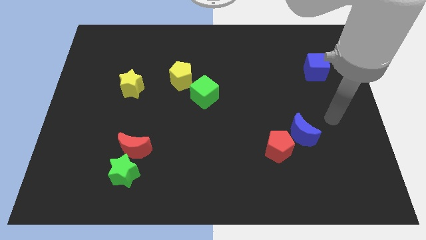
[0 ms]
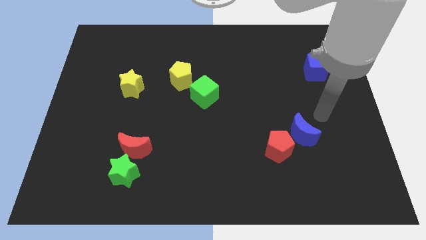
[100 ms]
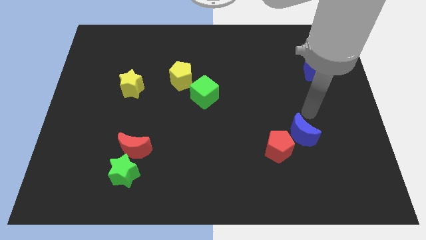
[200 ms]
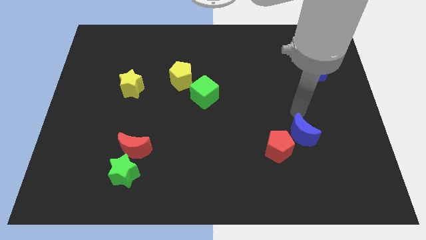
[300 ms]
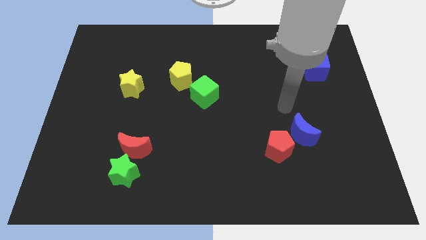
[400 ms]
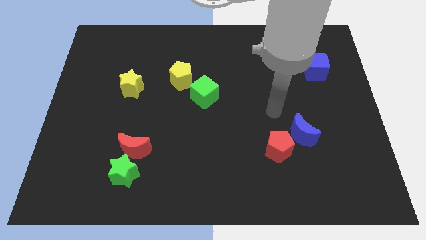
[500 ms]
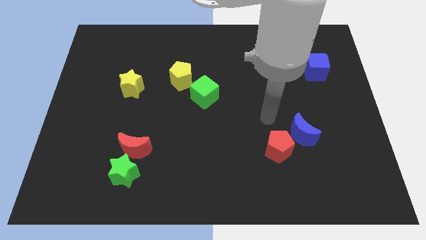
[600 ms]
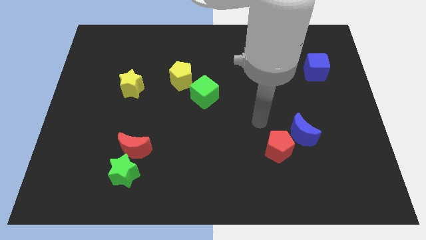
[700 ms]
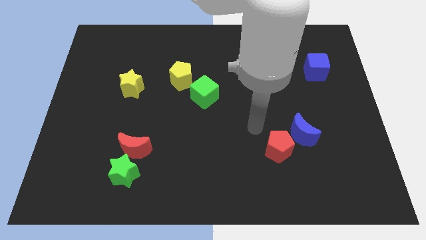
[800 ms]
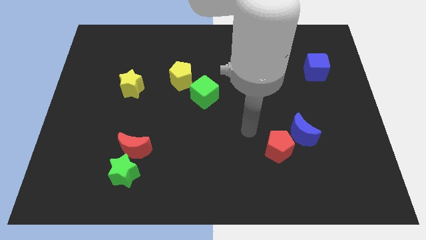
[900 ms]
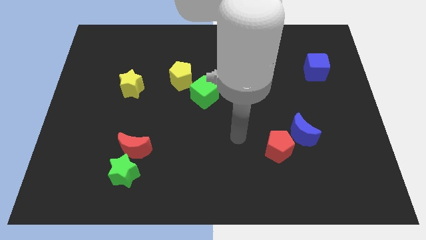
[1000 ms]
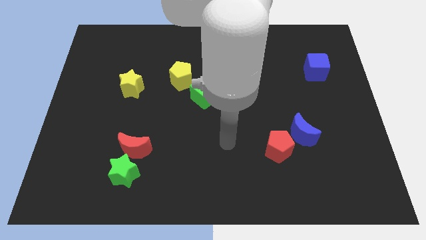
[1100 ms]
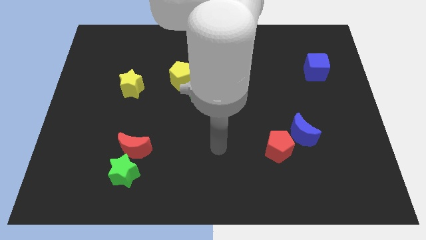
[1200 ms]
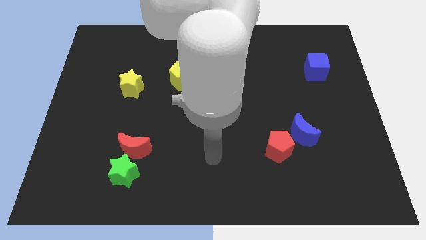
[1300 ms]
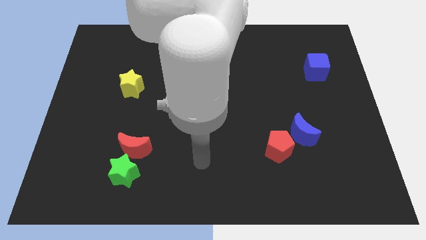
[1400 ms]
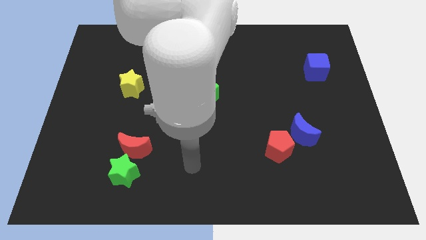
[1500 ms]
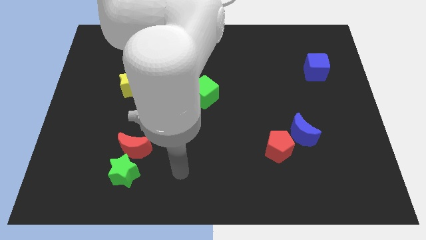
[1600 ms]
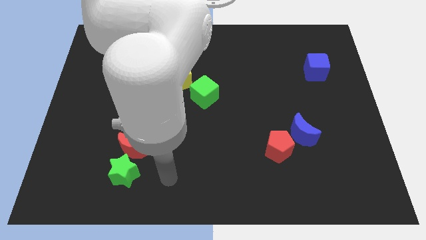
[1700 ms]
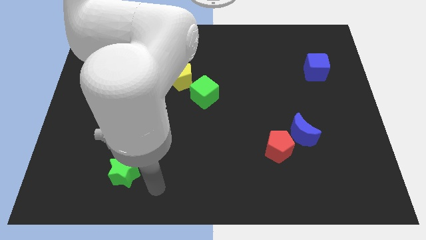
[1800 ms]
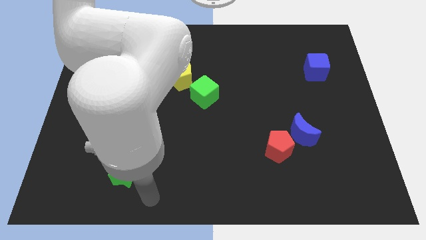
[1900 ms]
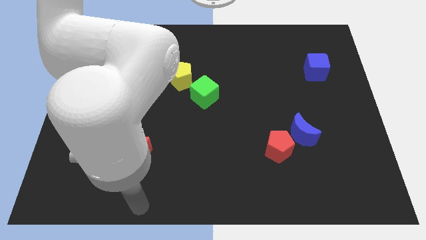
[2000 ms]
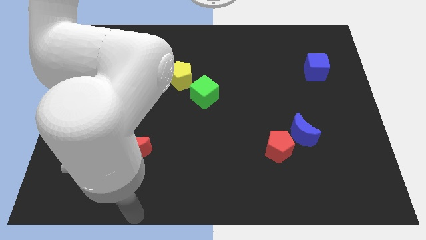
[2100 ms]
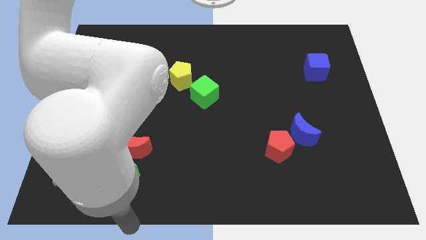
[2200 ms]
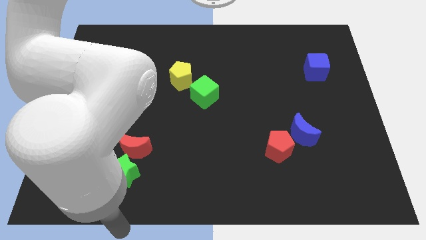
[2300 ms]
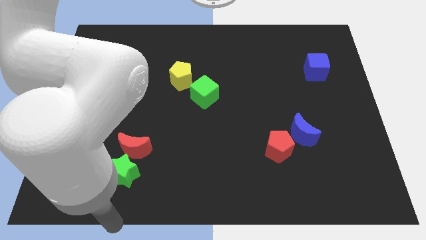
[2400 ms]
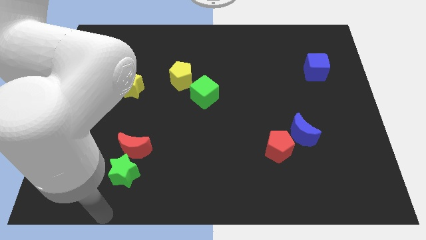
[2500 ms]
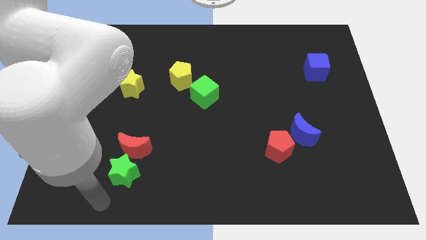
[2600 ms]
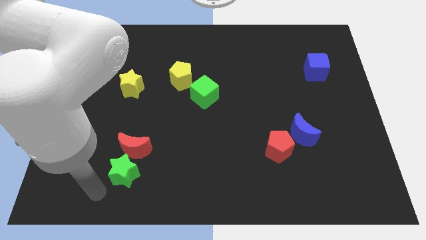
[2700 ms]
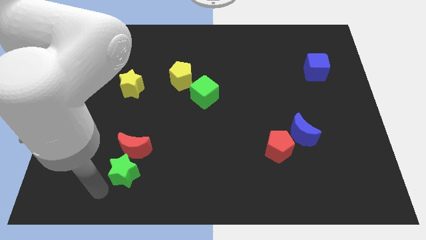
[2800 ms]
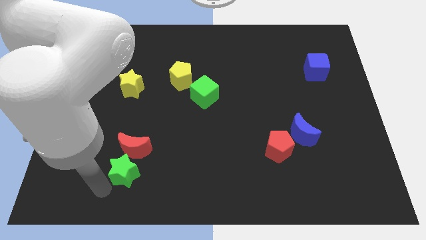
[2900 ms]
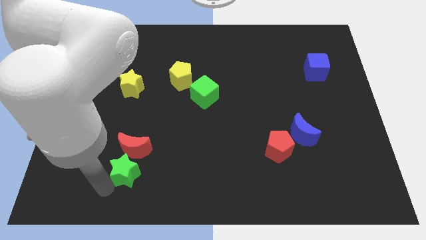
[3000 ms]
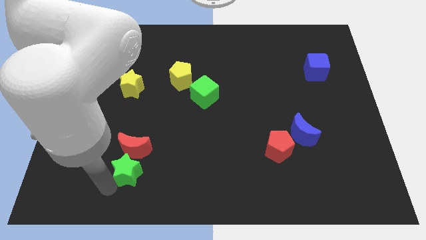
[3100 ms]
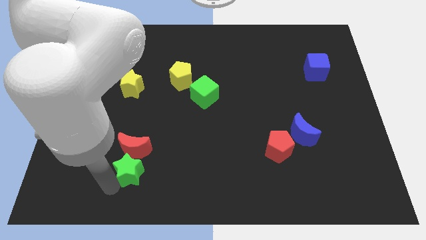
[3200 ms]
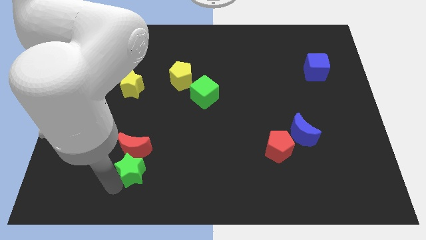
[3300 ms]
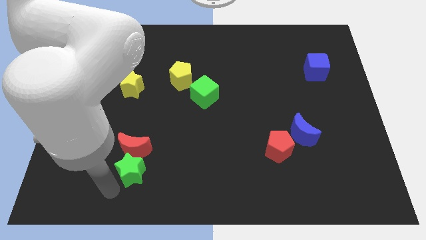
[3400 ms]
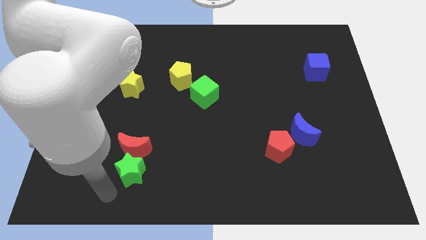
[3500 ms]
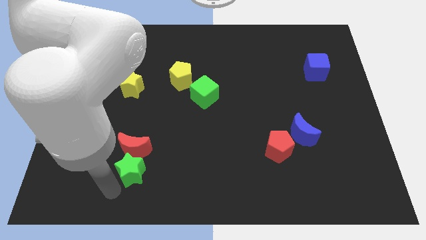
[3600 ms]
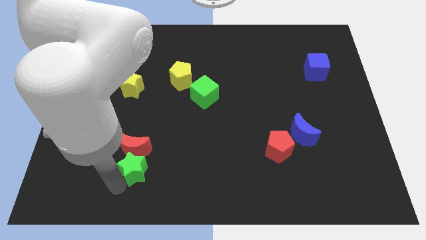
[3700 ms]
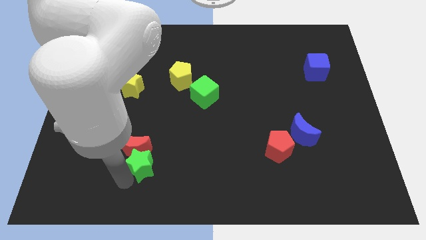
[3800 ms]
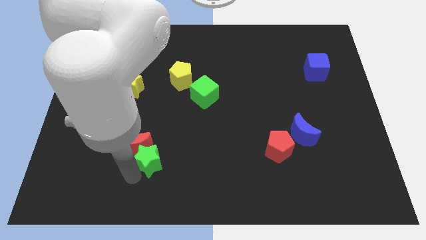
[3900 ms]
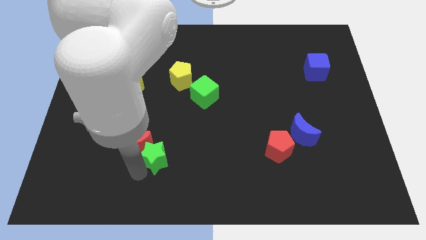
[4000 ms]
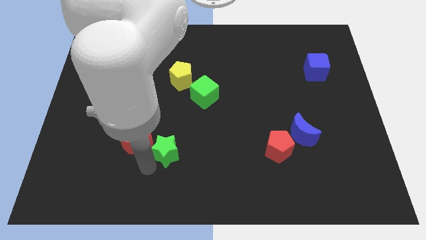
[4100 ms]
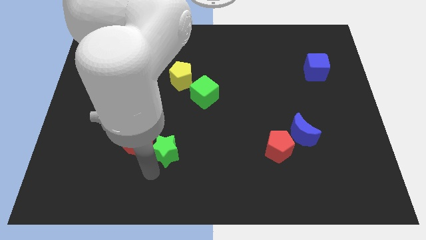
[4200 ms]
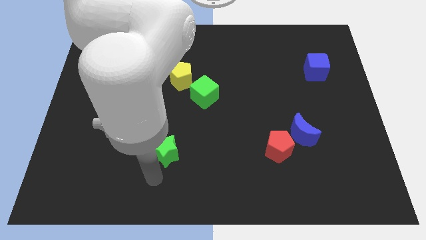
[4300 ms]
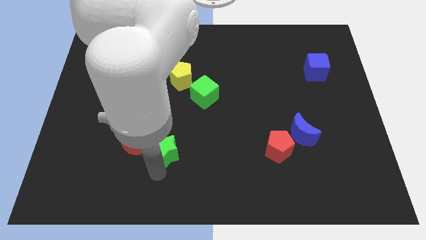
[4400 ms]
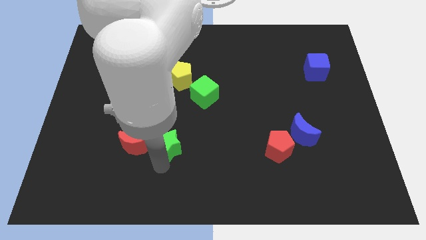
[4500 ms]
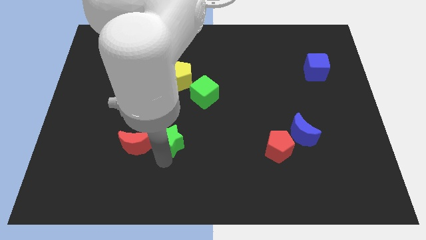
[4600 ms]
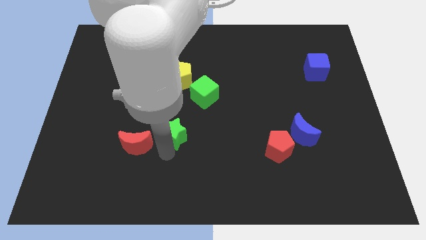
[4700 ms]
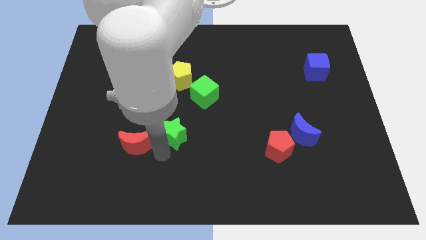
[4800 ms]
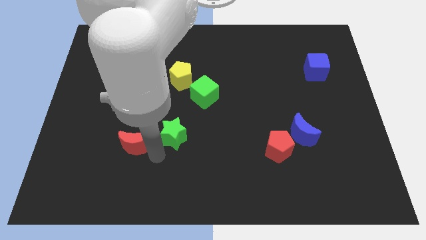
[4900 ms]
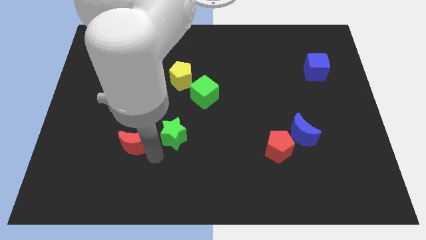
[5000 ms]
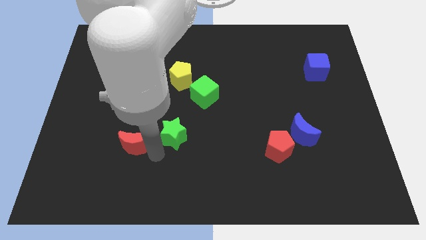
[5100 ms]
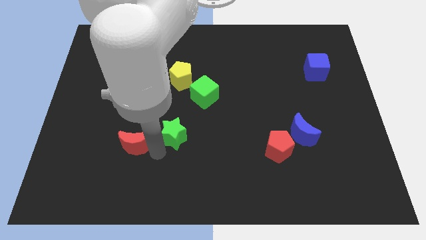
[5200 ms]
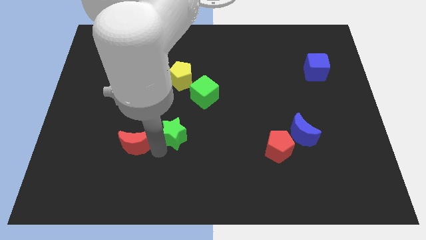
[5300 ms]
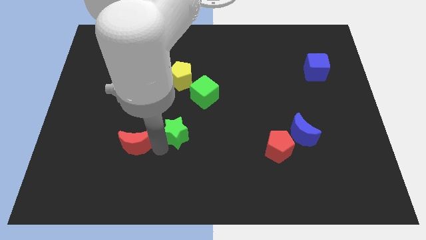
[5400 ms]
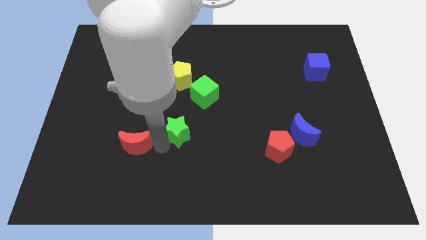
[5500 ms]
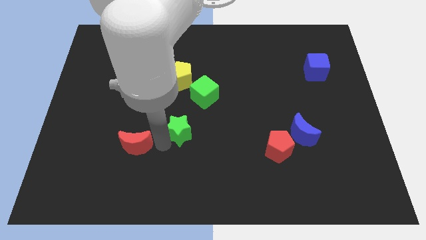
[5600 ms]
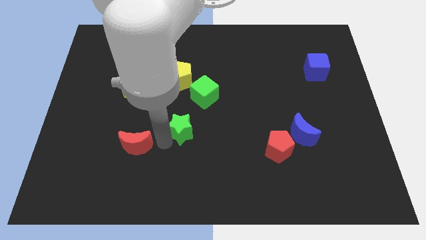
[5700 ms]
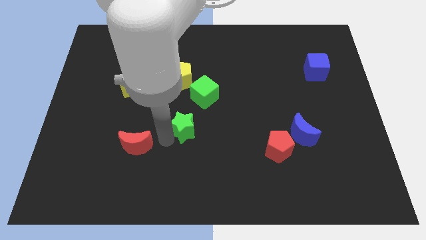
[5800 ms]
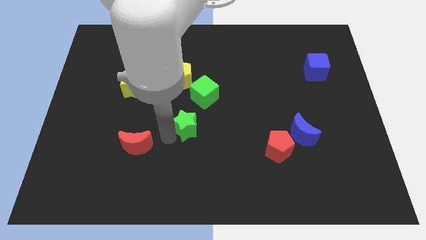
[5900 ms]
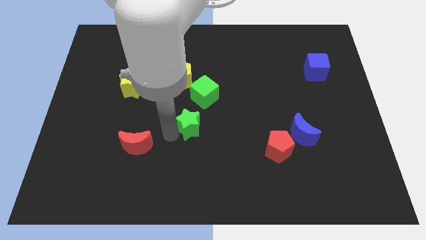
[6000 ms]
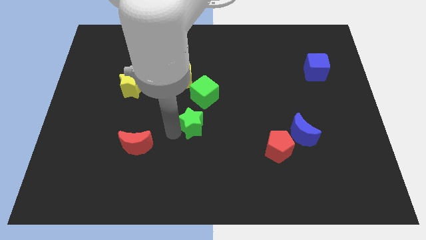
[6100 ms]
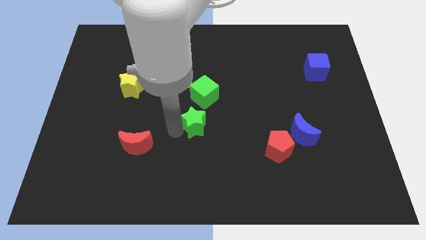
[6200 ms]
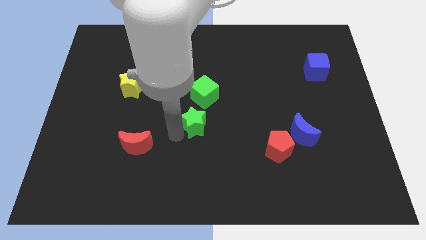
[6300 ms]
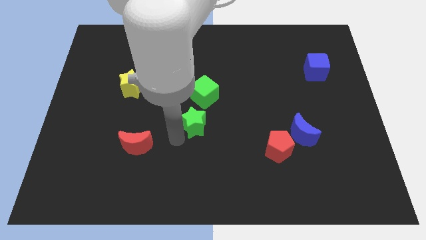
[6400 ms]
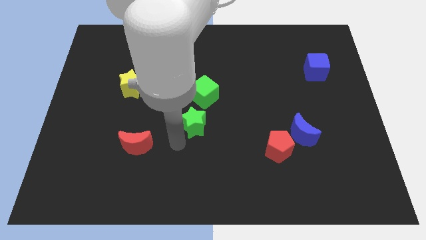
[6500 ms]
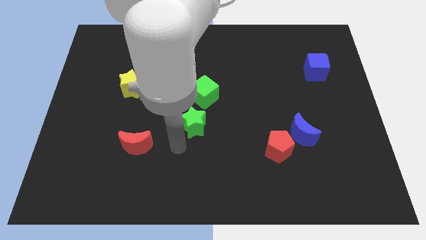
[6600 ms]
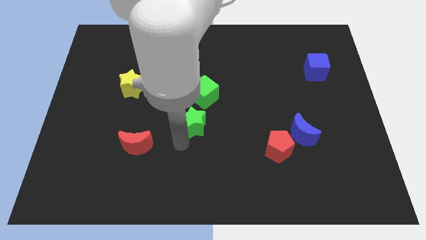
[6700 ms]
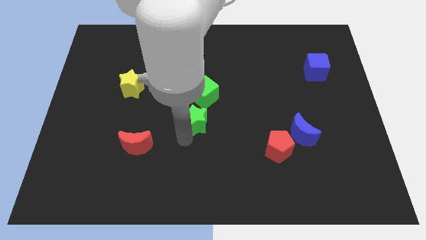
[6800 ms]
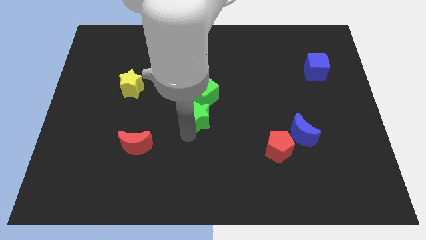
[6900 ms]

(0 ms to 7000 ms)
slide the green star upwards and to the right diagonally

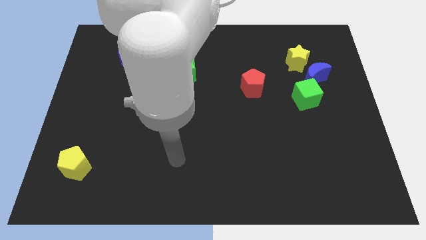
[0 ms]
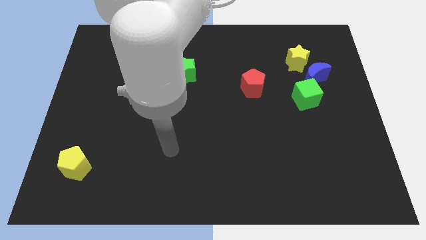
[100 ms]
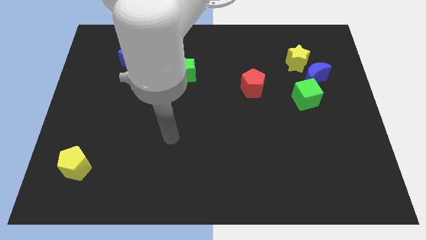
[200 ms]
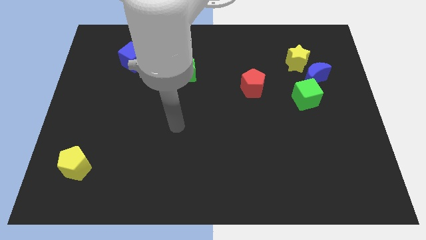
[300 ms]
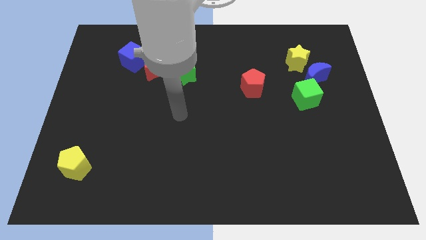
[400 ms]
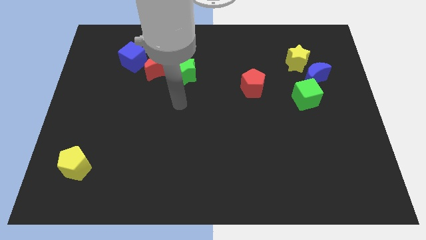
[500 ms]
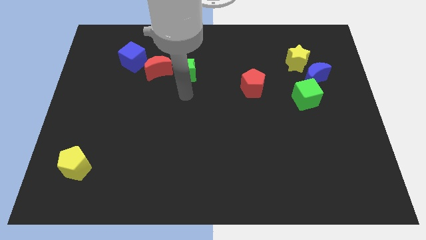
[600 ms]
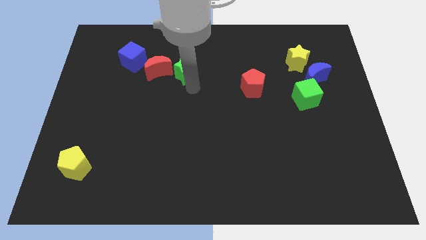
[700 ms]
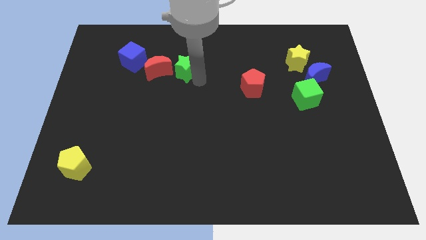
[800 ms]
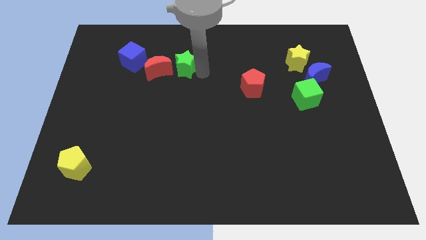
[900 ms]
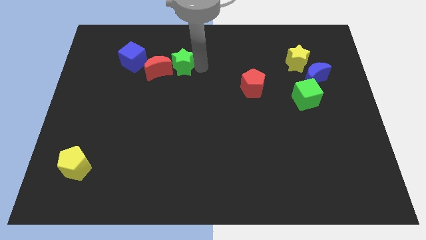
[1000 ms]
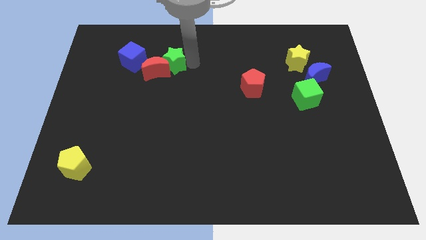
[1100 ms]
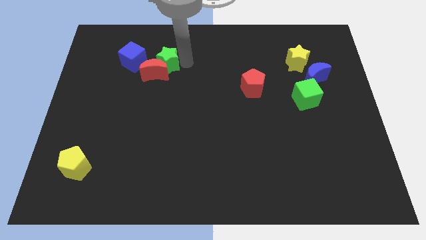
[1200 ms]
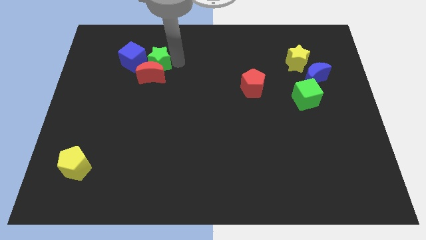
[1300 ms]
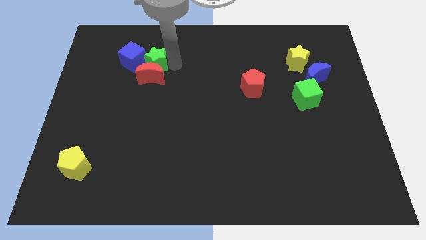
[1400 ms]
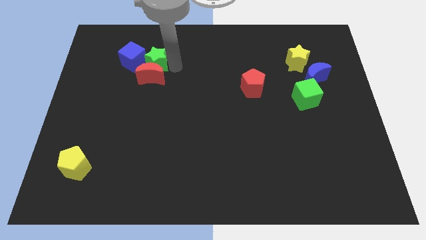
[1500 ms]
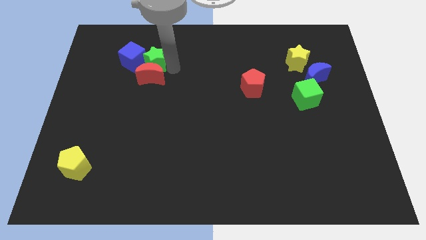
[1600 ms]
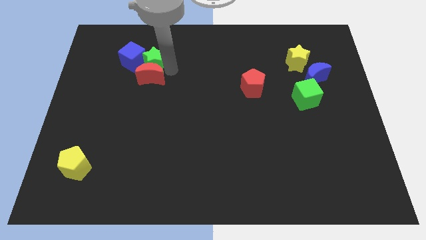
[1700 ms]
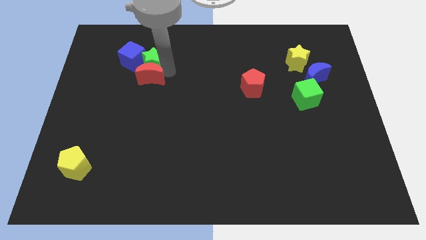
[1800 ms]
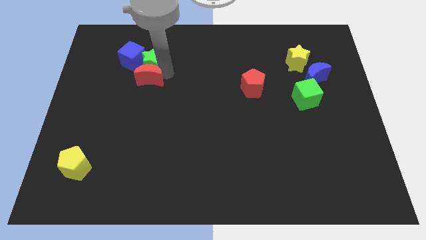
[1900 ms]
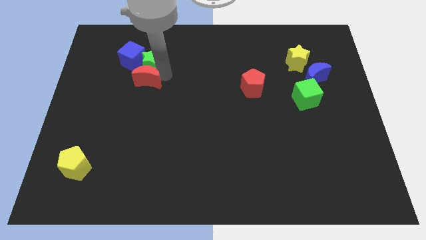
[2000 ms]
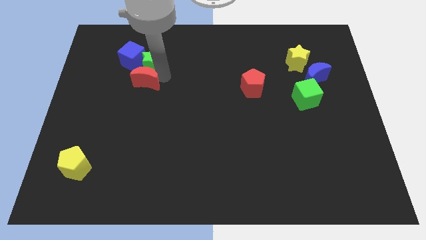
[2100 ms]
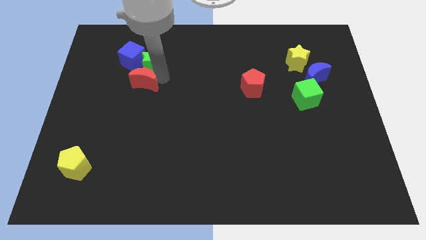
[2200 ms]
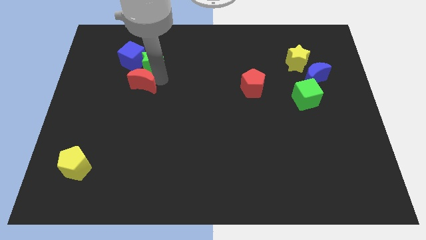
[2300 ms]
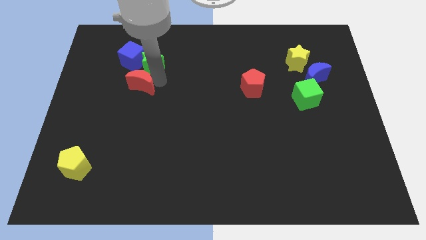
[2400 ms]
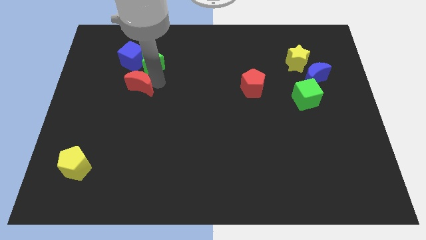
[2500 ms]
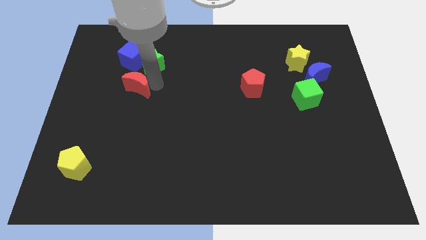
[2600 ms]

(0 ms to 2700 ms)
slightly move the red moon diagonally down and left
